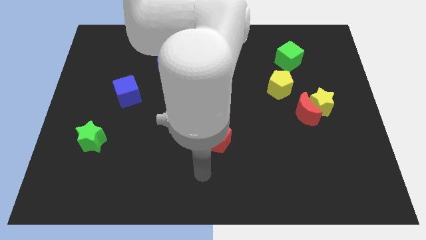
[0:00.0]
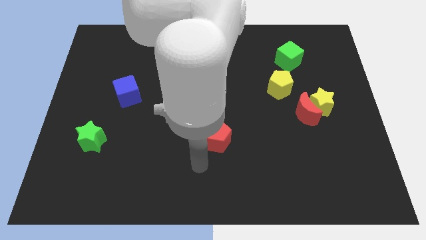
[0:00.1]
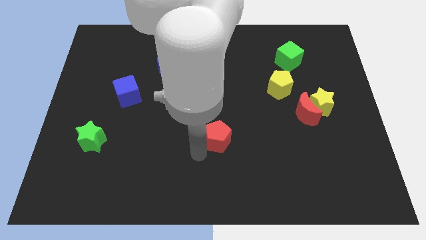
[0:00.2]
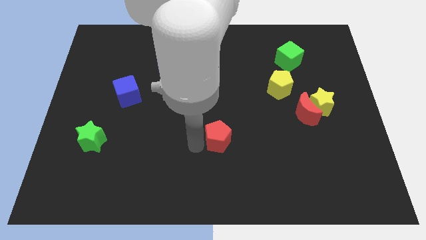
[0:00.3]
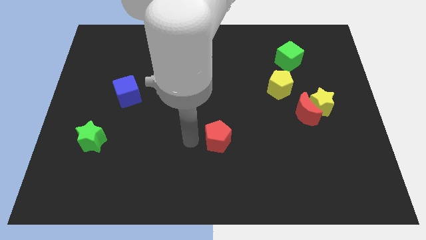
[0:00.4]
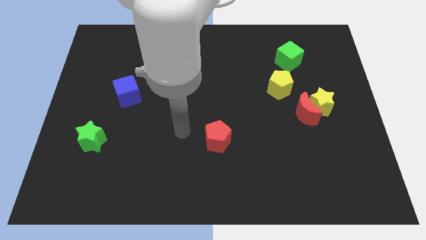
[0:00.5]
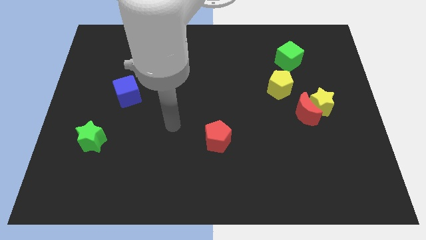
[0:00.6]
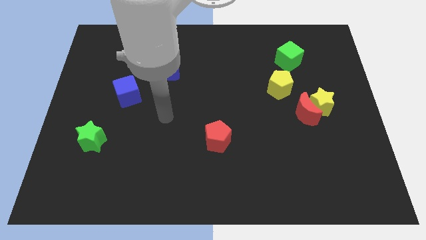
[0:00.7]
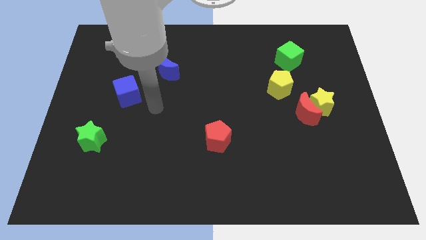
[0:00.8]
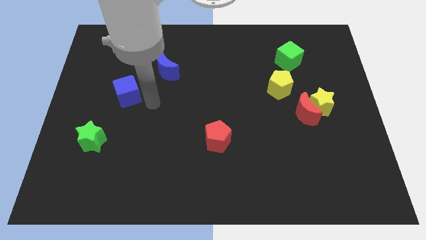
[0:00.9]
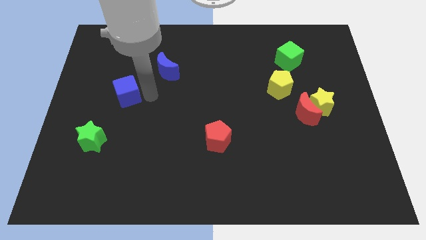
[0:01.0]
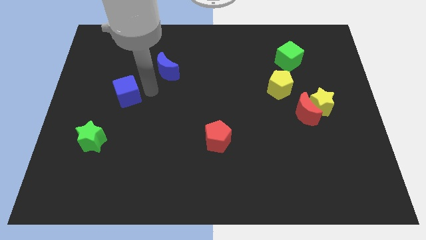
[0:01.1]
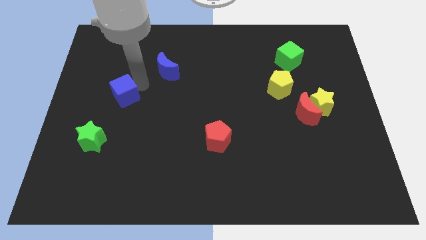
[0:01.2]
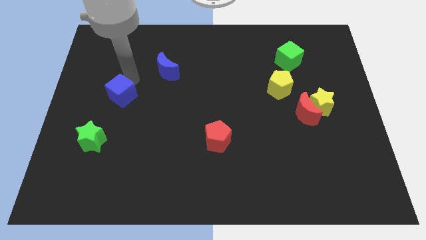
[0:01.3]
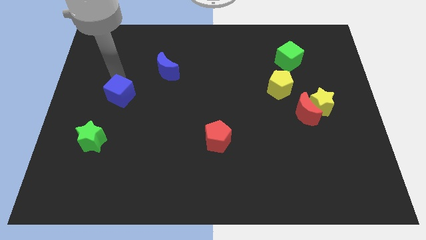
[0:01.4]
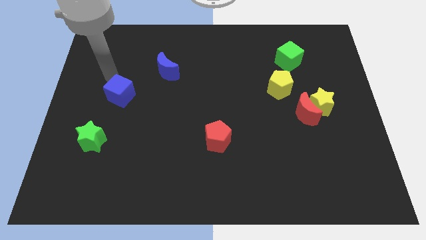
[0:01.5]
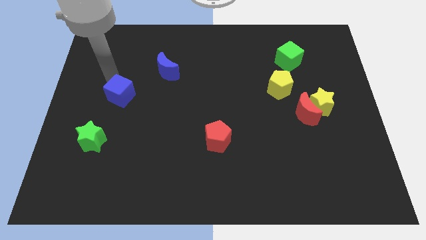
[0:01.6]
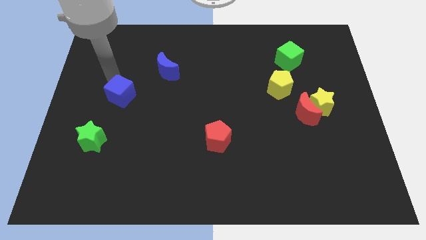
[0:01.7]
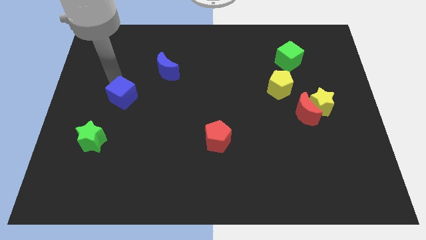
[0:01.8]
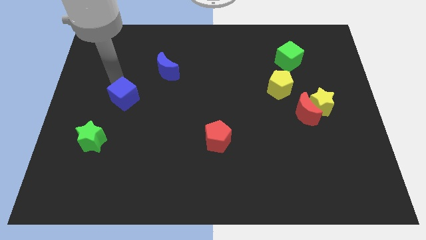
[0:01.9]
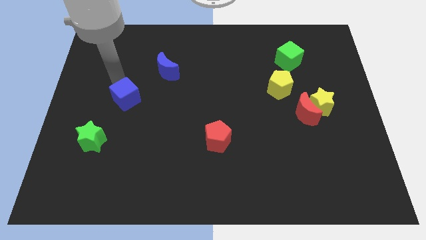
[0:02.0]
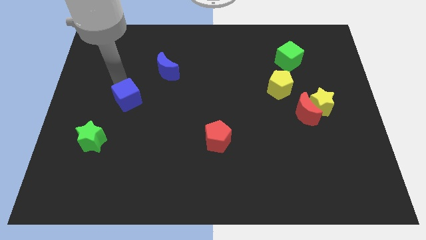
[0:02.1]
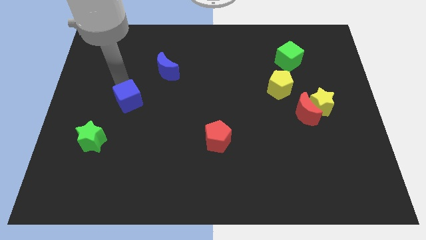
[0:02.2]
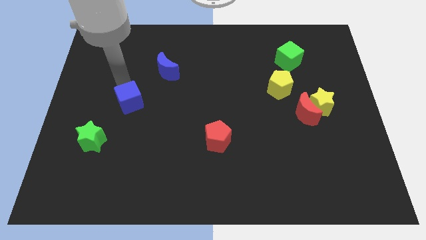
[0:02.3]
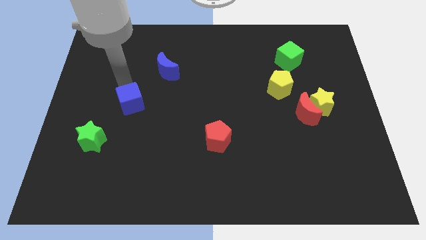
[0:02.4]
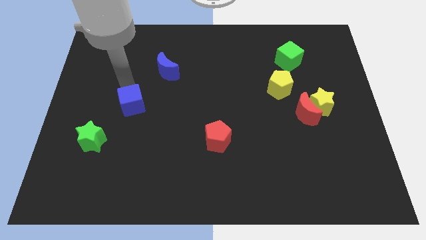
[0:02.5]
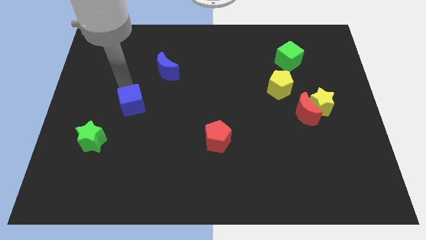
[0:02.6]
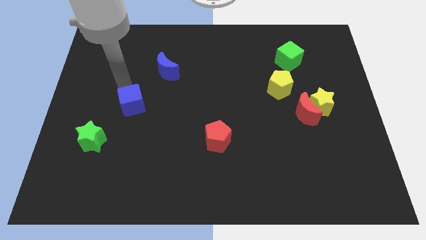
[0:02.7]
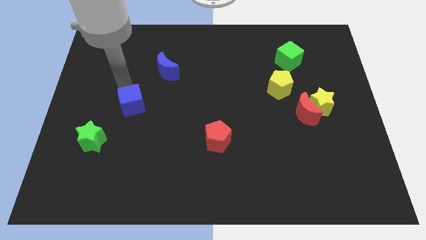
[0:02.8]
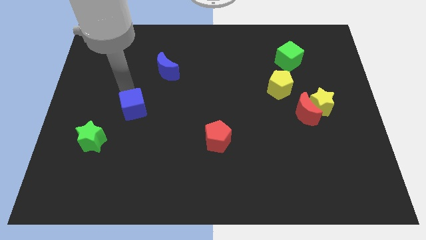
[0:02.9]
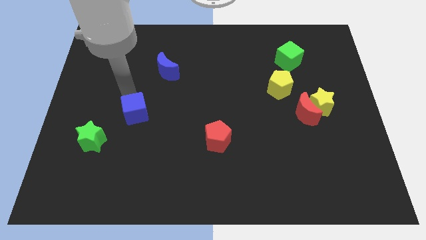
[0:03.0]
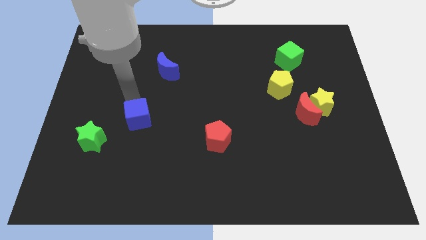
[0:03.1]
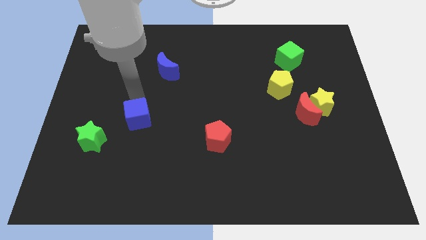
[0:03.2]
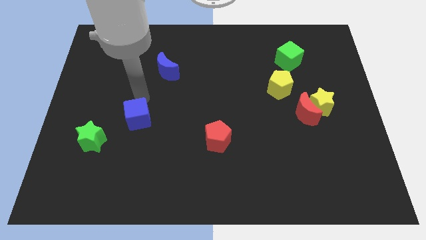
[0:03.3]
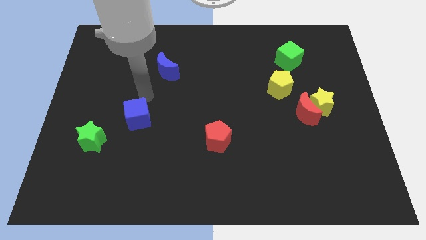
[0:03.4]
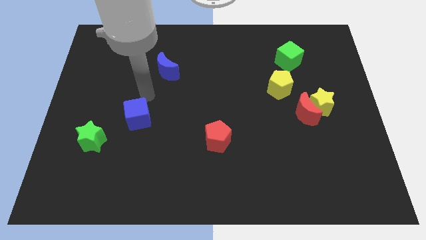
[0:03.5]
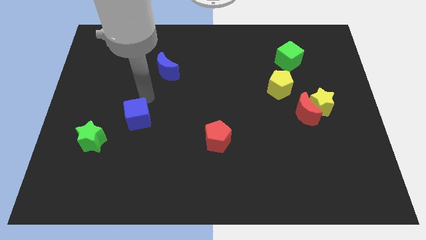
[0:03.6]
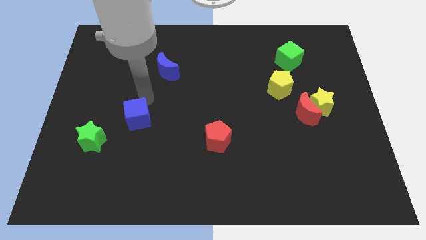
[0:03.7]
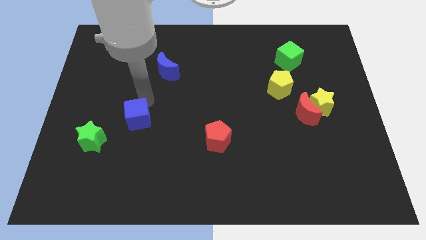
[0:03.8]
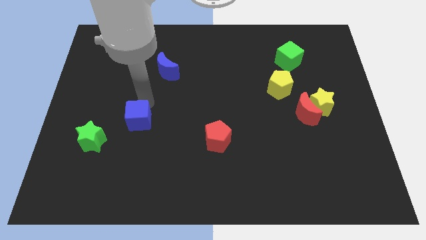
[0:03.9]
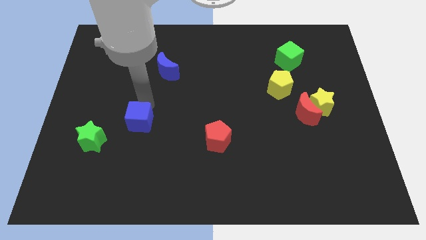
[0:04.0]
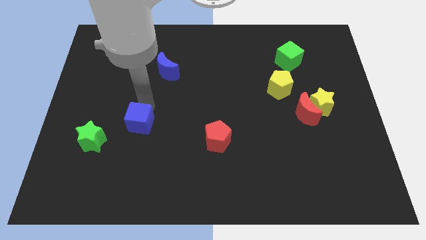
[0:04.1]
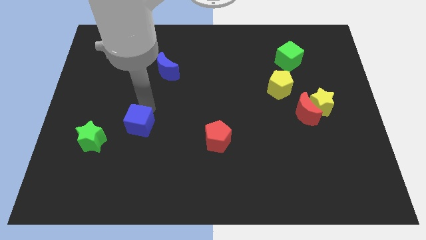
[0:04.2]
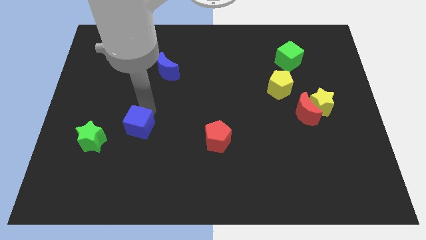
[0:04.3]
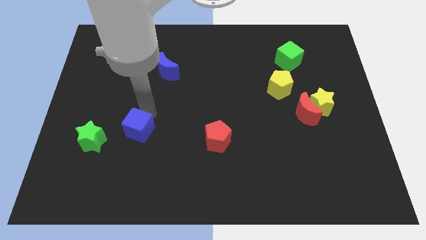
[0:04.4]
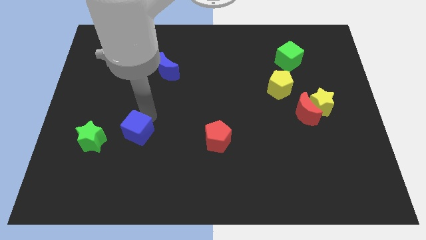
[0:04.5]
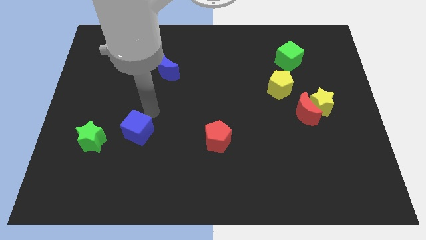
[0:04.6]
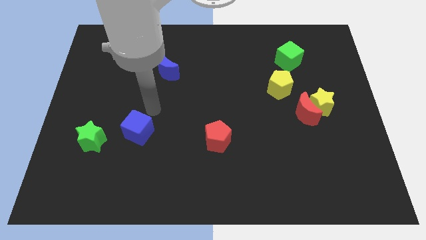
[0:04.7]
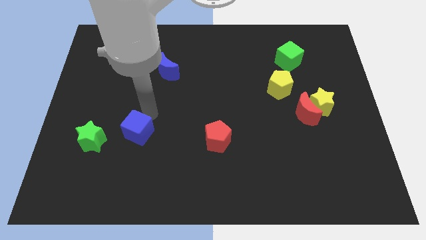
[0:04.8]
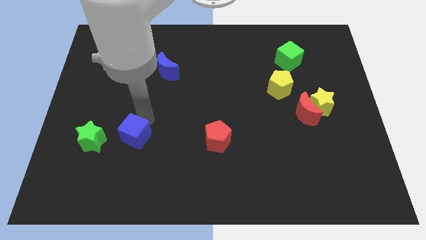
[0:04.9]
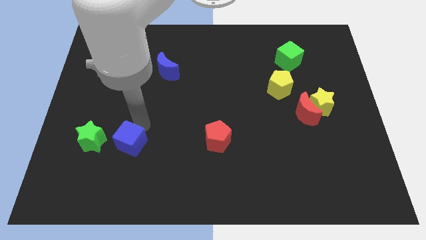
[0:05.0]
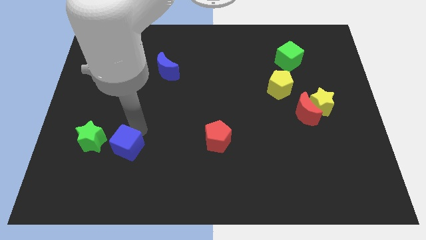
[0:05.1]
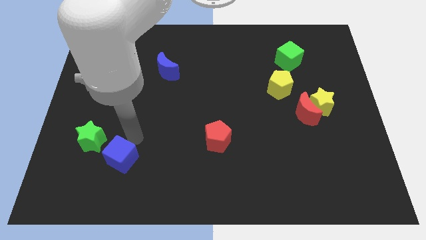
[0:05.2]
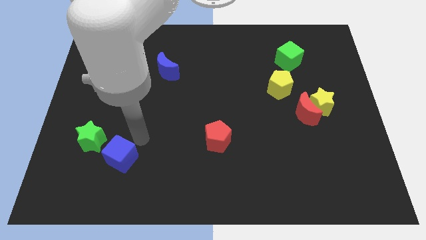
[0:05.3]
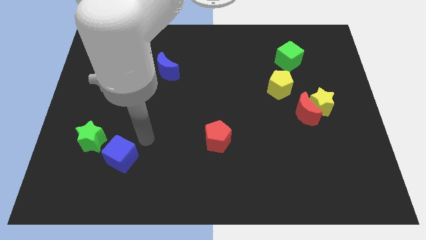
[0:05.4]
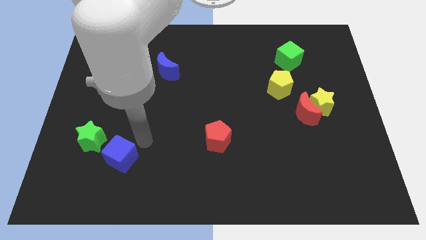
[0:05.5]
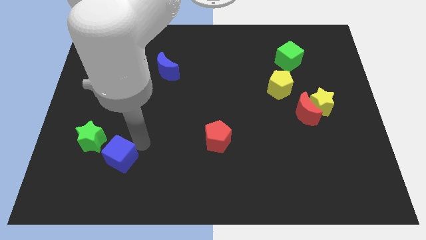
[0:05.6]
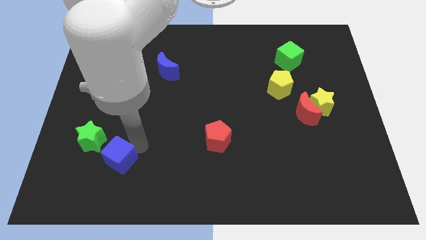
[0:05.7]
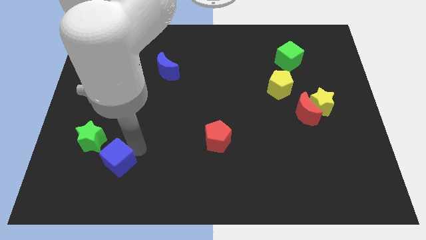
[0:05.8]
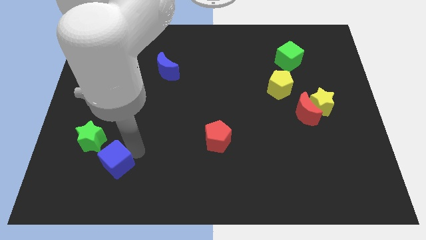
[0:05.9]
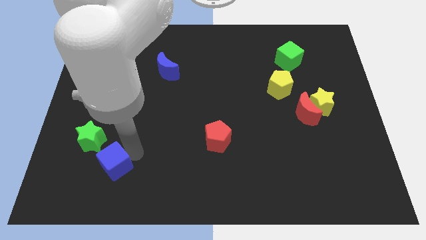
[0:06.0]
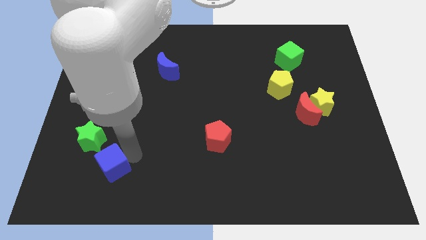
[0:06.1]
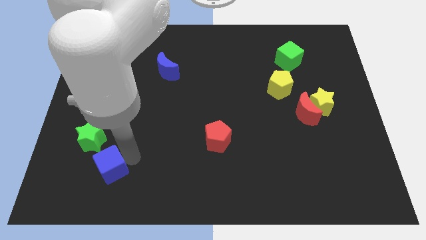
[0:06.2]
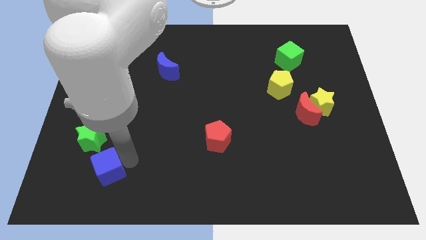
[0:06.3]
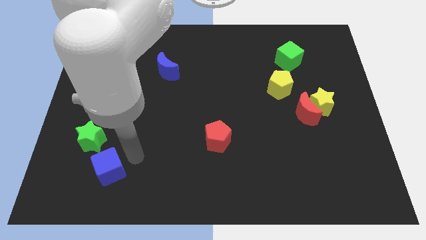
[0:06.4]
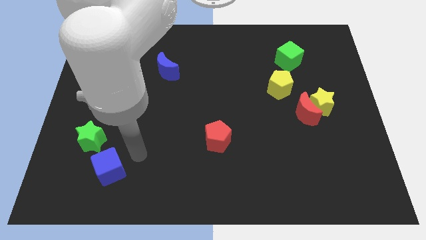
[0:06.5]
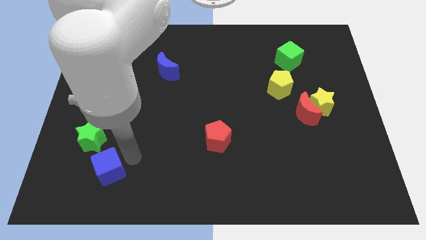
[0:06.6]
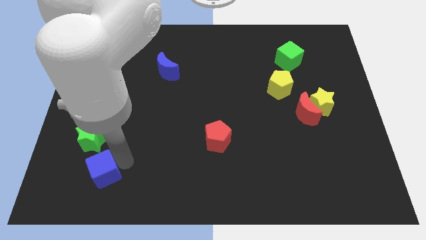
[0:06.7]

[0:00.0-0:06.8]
move the blue cube below the green star

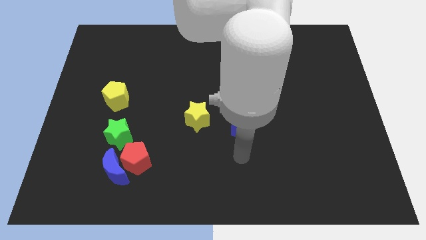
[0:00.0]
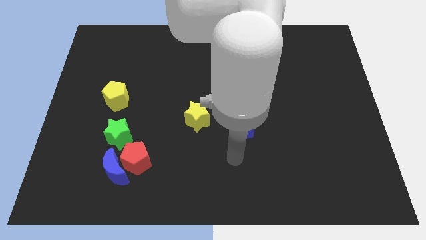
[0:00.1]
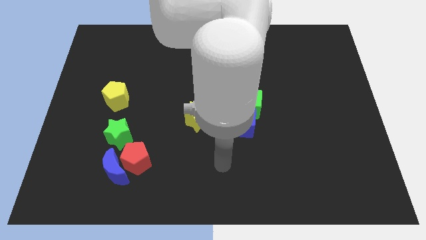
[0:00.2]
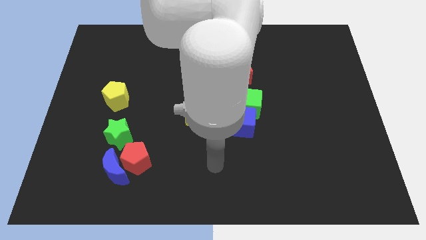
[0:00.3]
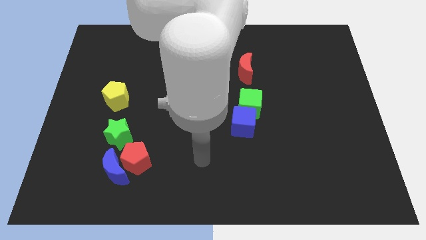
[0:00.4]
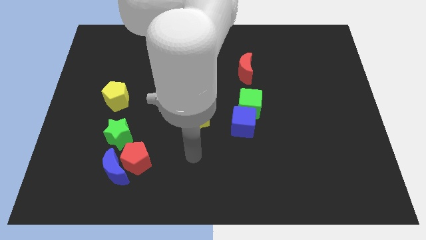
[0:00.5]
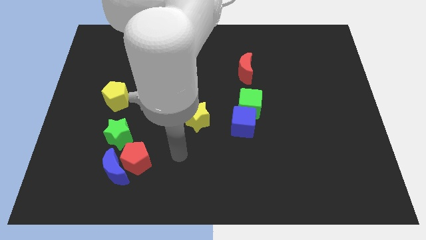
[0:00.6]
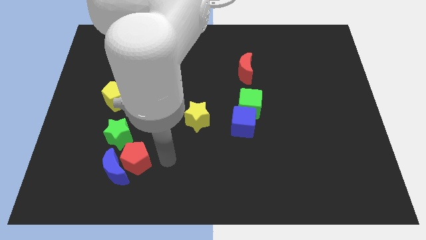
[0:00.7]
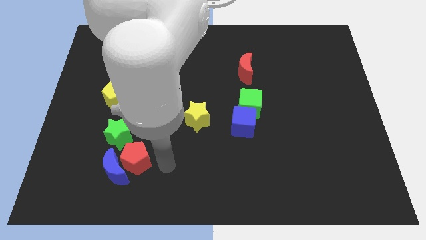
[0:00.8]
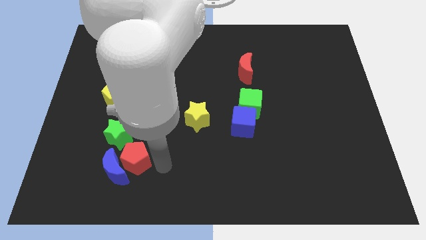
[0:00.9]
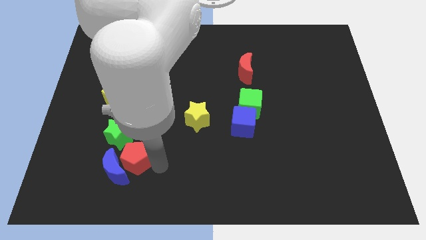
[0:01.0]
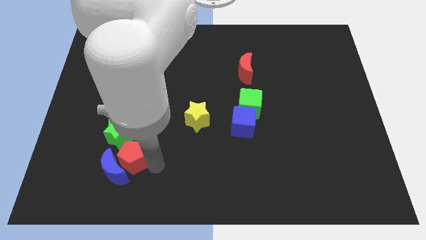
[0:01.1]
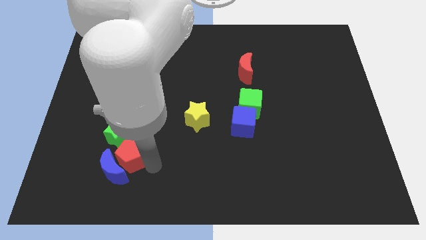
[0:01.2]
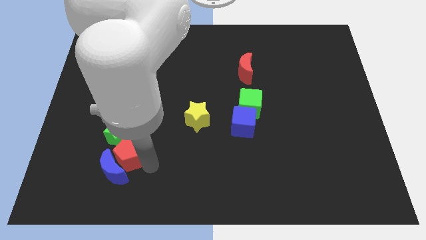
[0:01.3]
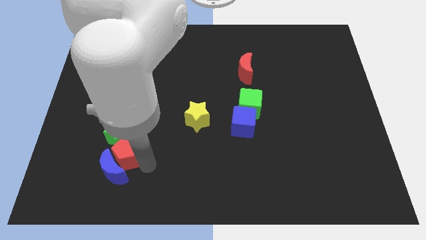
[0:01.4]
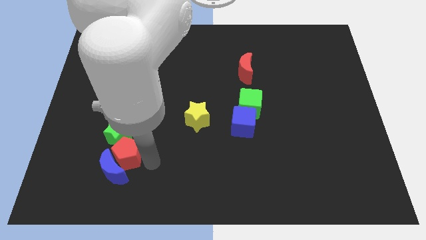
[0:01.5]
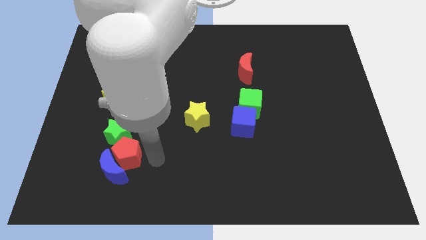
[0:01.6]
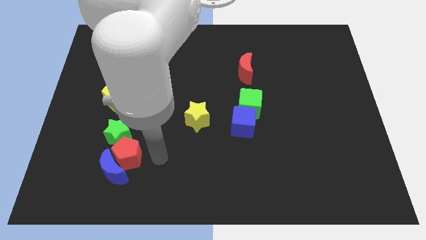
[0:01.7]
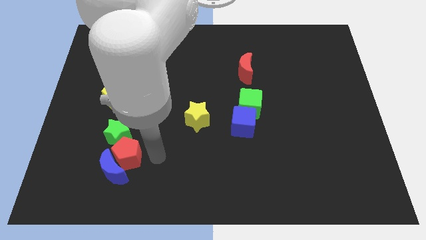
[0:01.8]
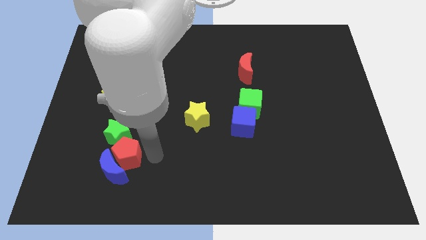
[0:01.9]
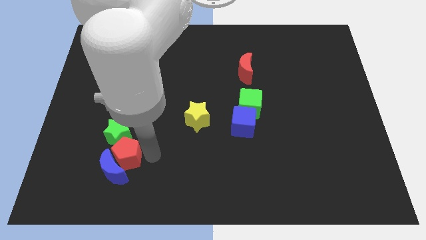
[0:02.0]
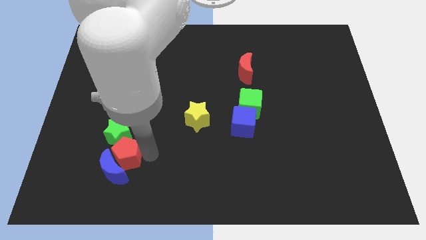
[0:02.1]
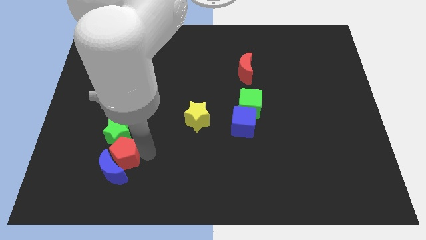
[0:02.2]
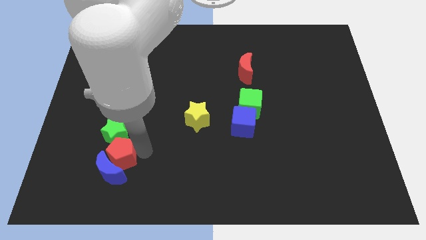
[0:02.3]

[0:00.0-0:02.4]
put the red pentagon diagonally up and to the left of the blue moon
